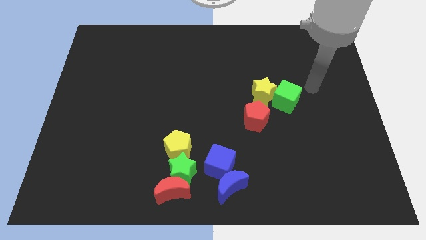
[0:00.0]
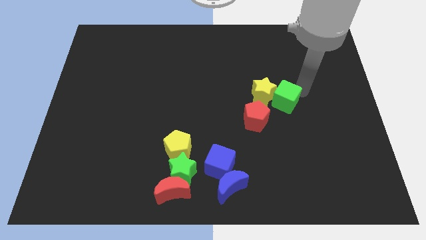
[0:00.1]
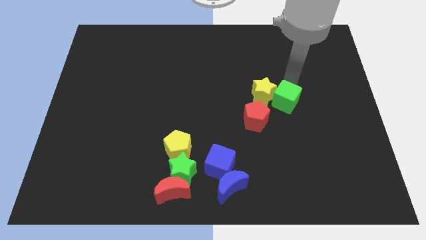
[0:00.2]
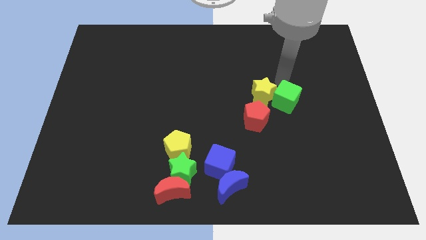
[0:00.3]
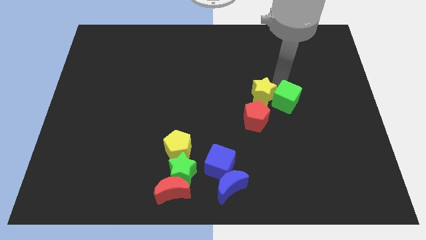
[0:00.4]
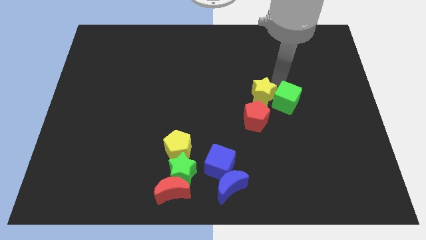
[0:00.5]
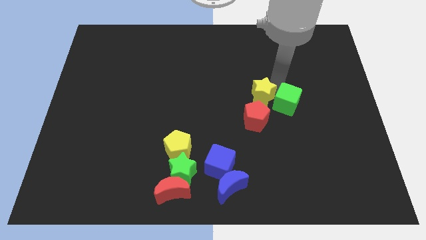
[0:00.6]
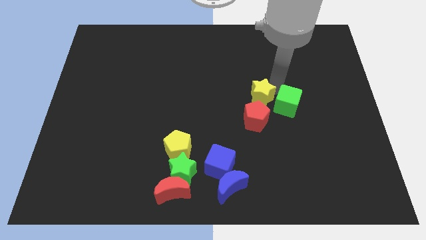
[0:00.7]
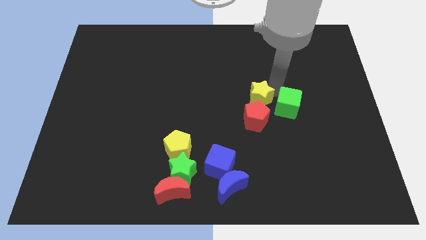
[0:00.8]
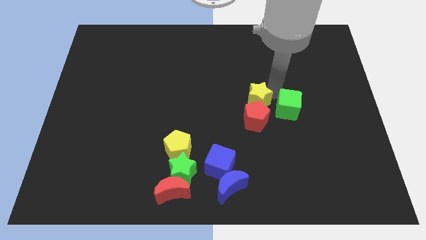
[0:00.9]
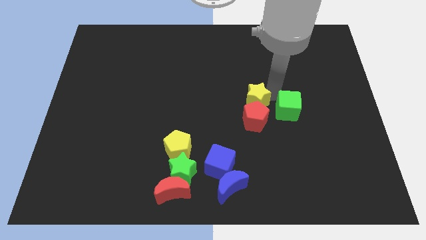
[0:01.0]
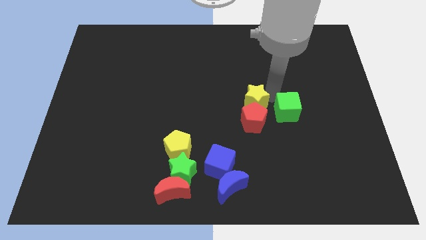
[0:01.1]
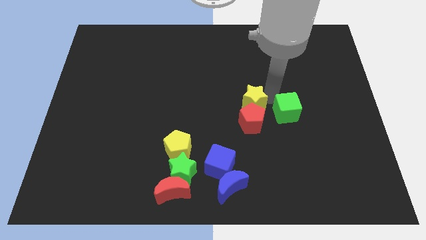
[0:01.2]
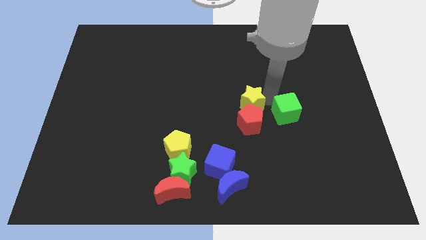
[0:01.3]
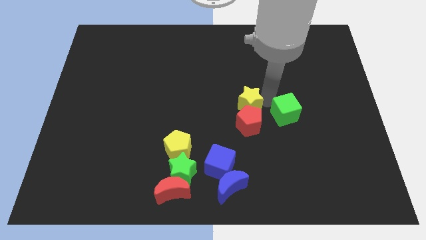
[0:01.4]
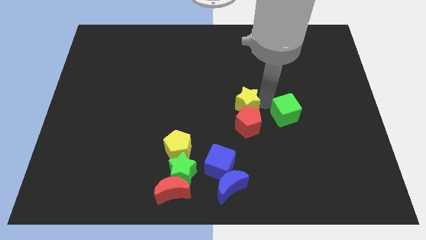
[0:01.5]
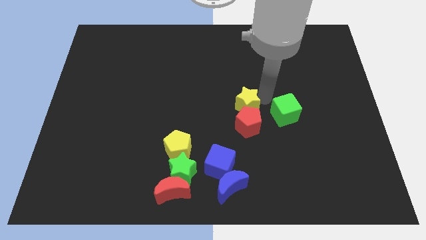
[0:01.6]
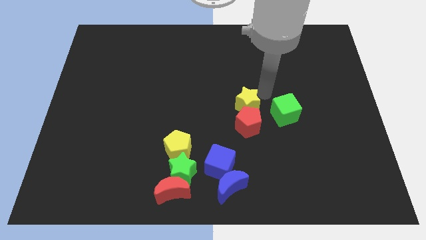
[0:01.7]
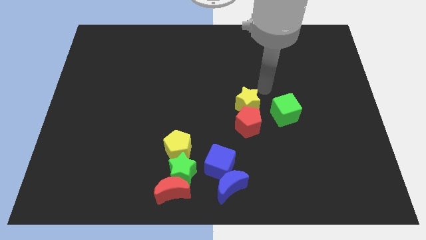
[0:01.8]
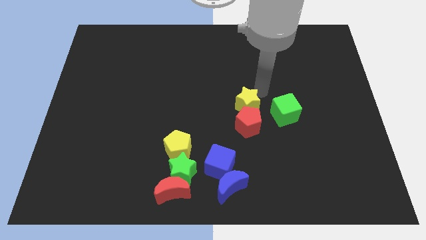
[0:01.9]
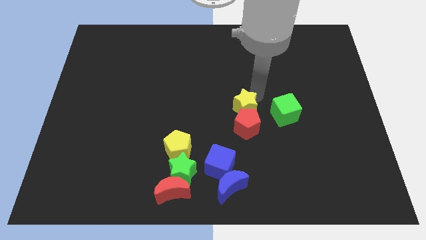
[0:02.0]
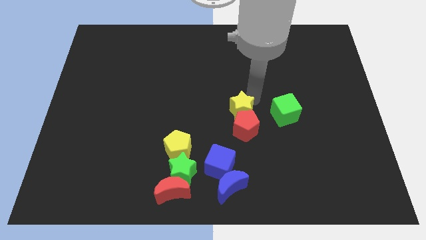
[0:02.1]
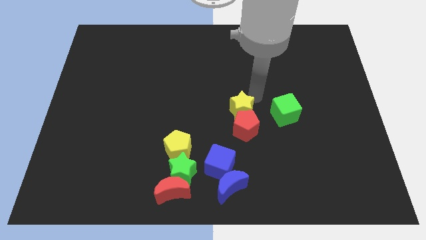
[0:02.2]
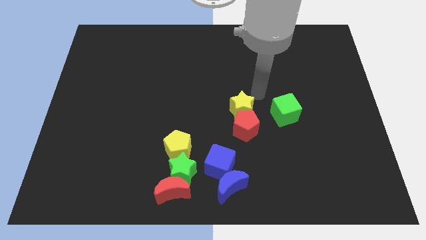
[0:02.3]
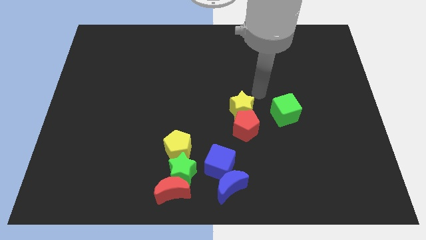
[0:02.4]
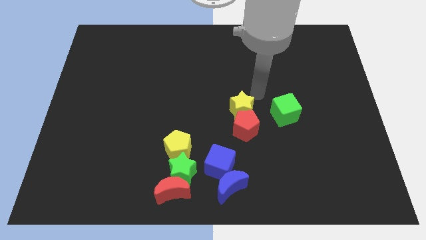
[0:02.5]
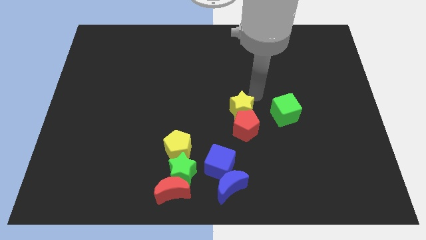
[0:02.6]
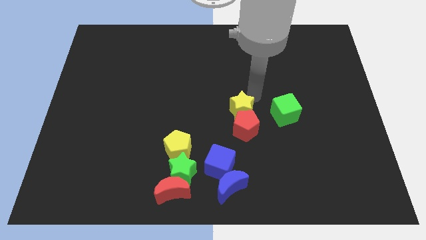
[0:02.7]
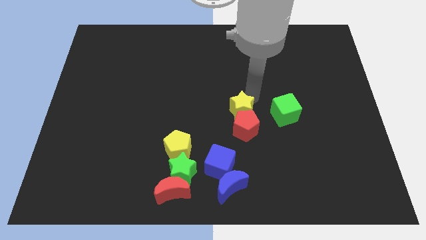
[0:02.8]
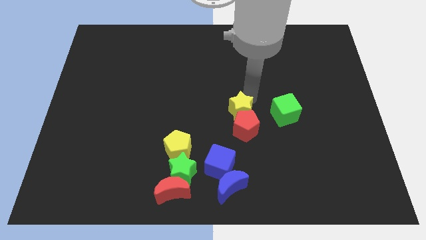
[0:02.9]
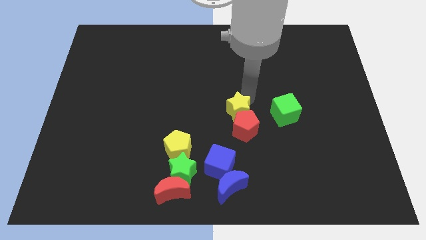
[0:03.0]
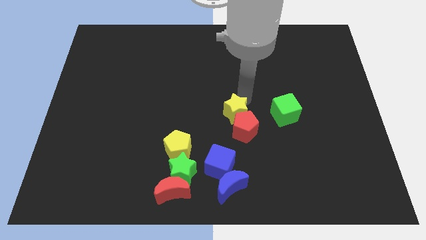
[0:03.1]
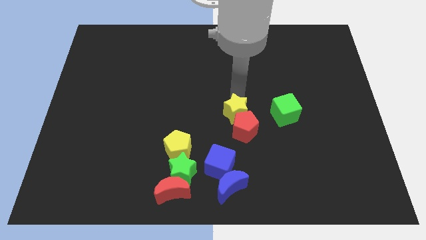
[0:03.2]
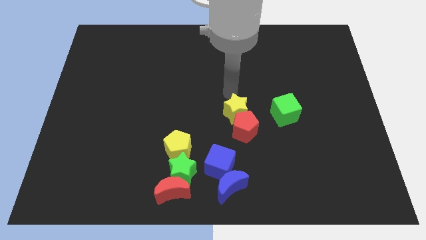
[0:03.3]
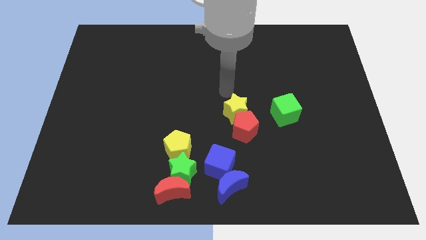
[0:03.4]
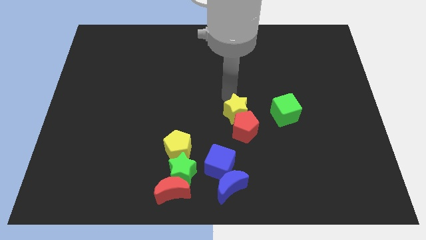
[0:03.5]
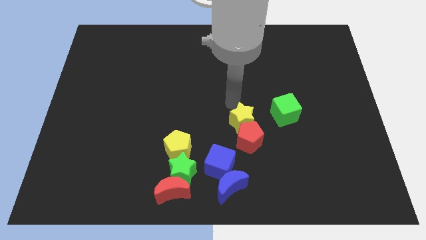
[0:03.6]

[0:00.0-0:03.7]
push the yellow star down a little bit

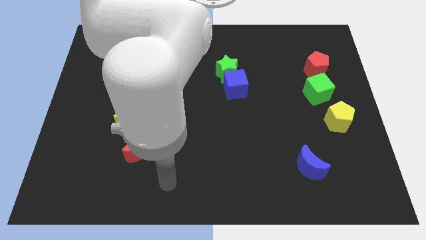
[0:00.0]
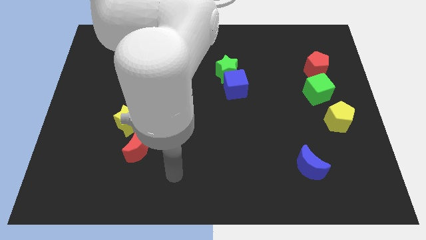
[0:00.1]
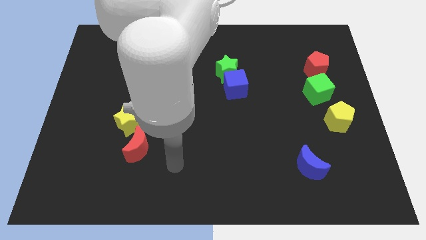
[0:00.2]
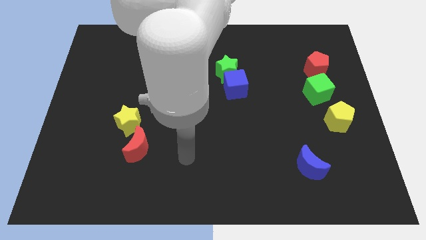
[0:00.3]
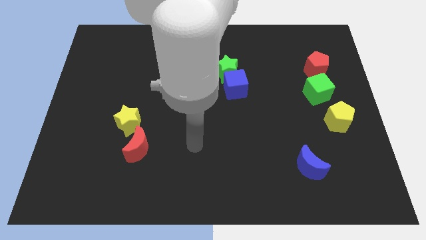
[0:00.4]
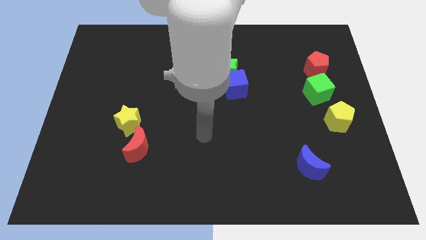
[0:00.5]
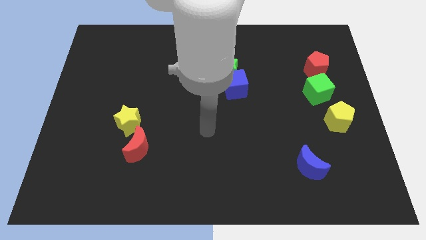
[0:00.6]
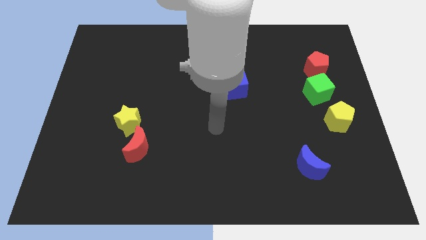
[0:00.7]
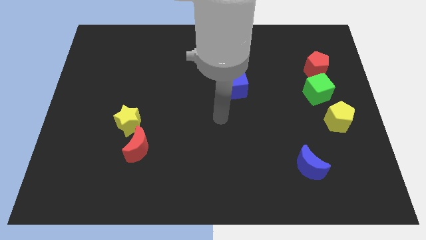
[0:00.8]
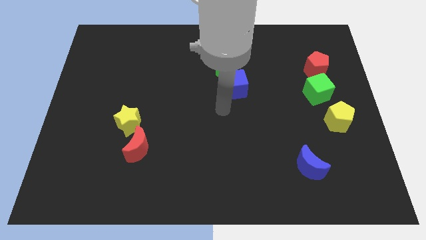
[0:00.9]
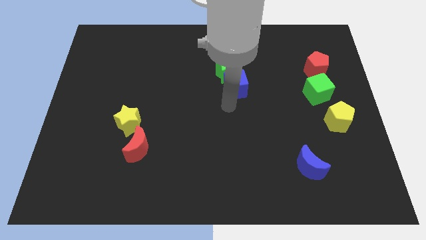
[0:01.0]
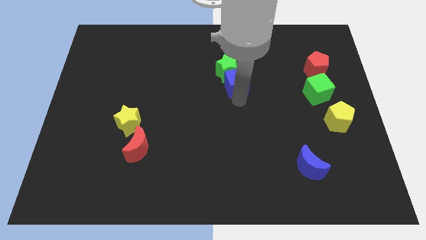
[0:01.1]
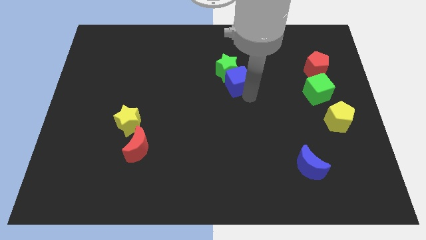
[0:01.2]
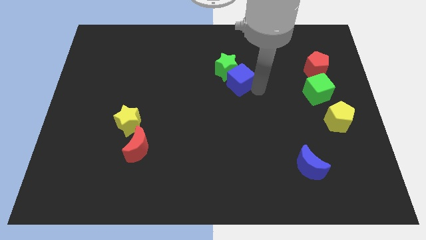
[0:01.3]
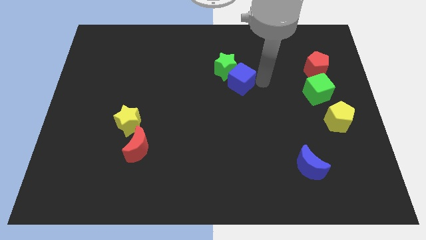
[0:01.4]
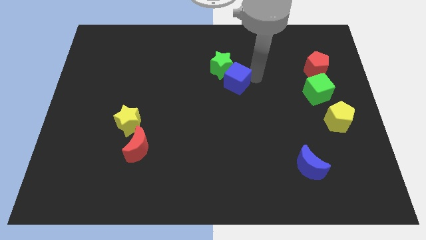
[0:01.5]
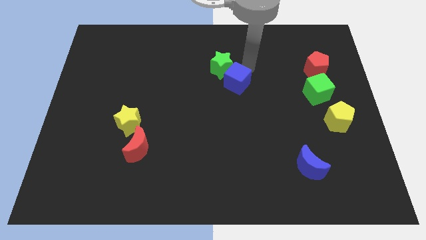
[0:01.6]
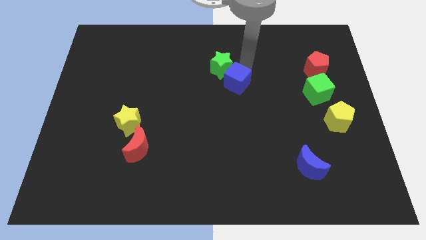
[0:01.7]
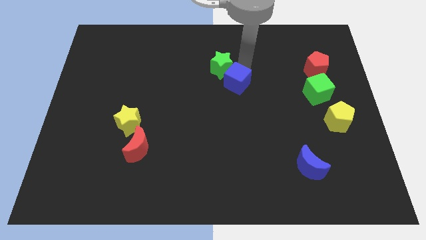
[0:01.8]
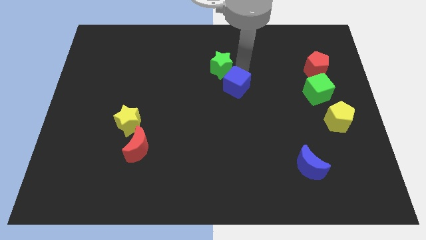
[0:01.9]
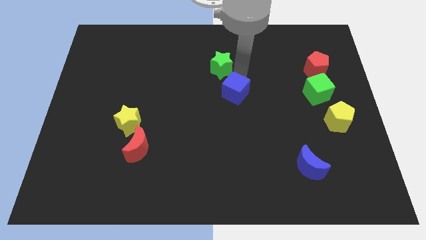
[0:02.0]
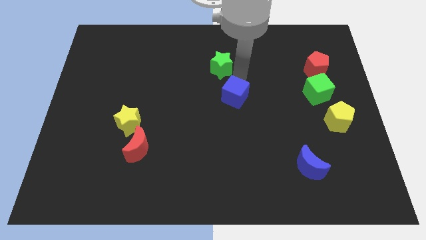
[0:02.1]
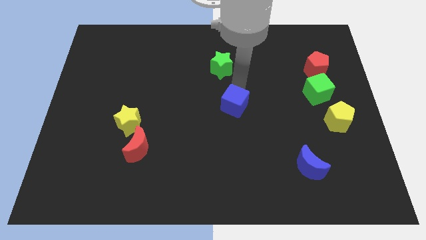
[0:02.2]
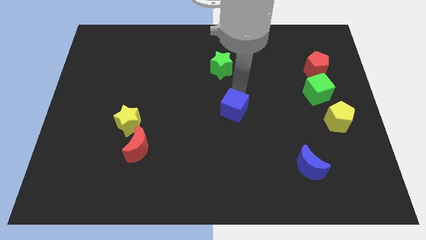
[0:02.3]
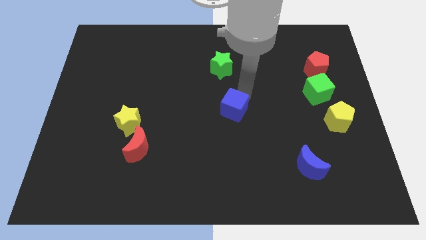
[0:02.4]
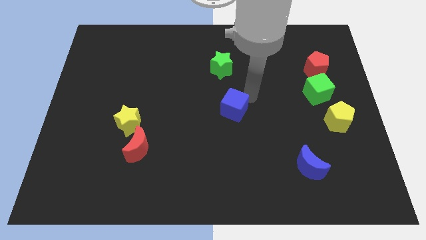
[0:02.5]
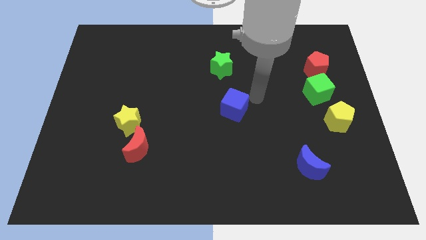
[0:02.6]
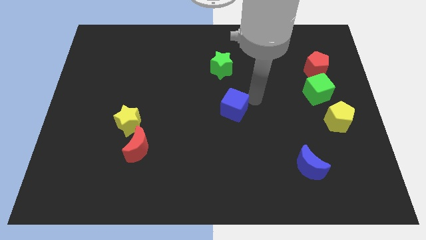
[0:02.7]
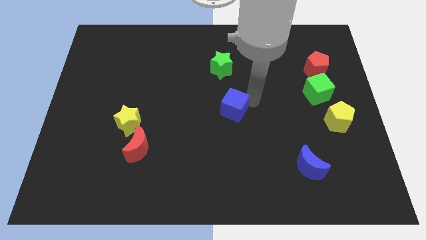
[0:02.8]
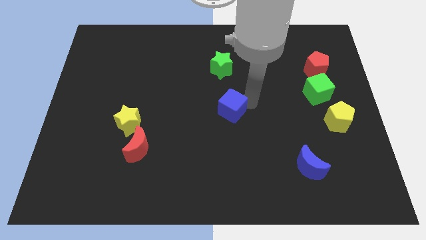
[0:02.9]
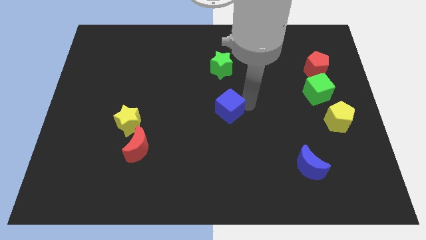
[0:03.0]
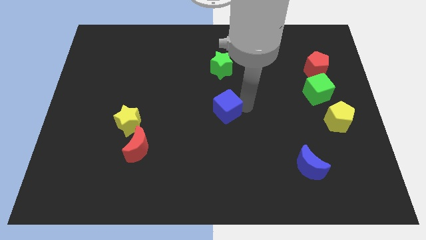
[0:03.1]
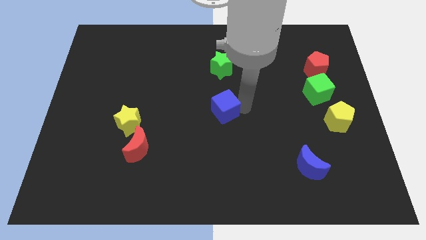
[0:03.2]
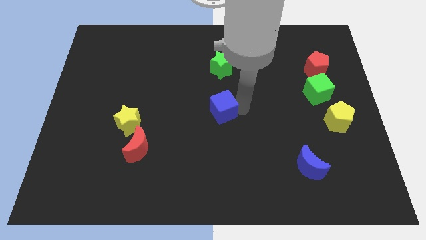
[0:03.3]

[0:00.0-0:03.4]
push the blue cube diagonally down and left a bit

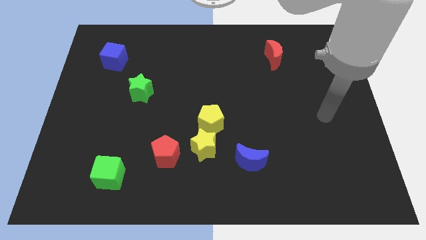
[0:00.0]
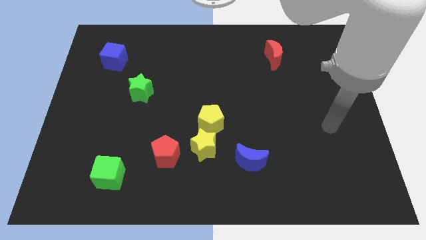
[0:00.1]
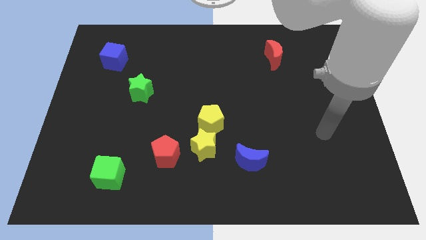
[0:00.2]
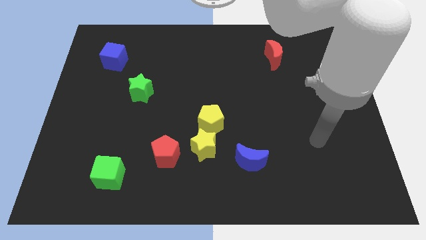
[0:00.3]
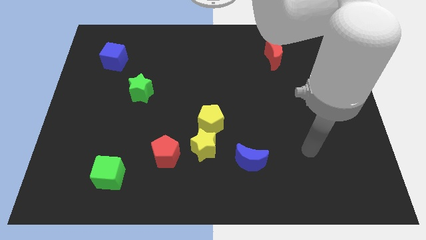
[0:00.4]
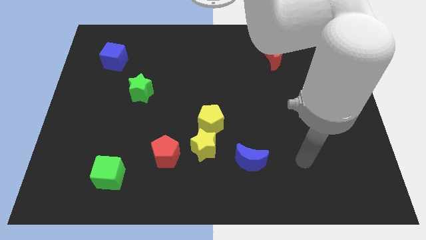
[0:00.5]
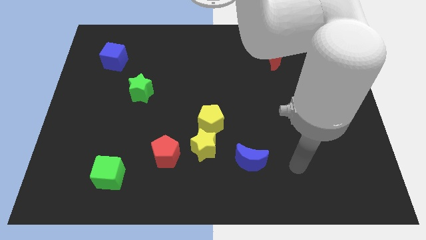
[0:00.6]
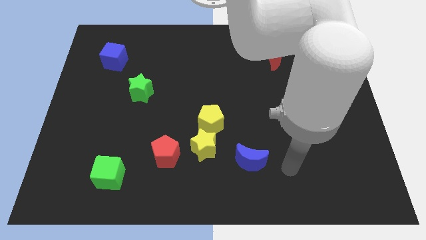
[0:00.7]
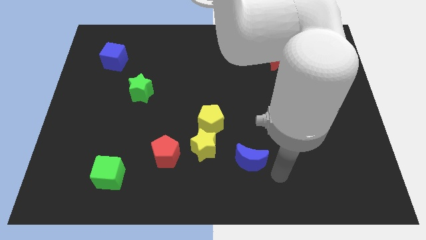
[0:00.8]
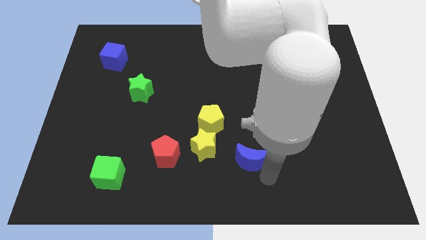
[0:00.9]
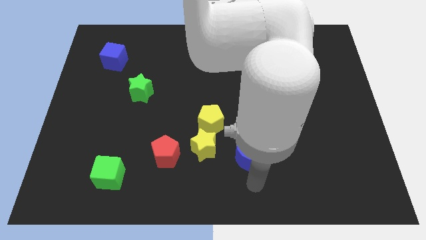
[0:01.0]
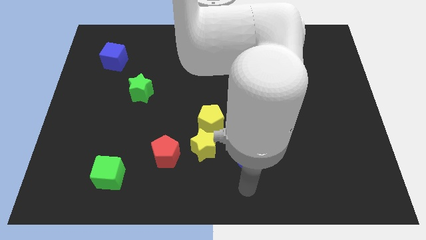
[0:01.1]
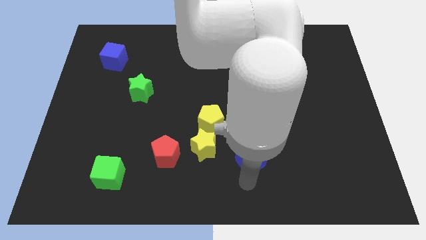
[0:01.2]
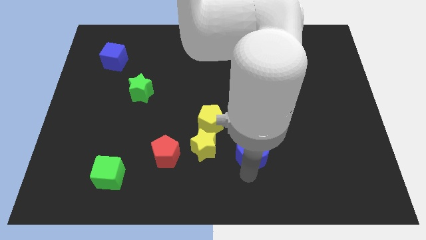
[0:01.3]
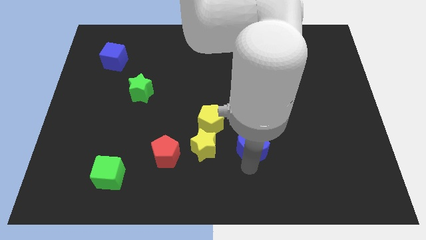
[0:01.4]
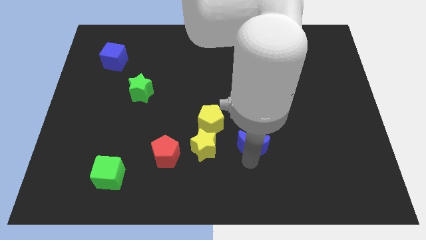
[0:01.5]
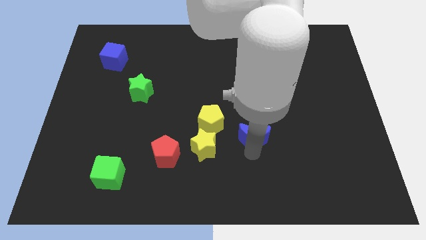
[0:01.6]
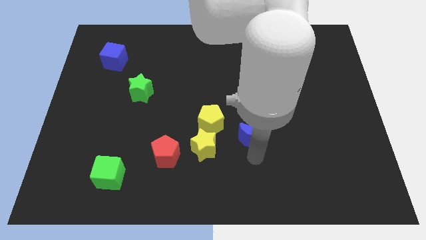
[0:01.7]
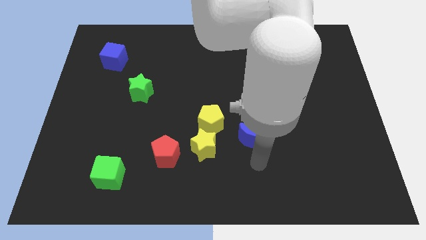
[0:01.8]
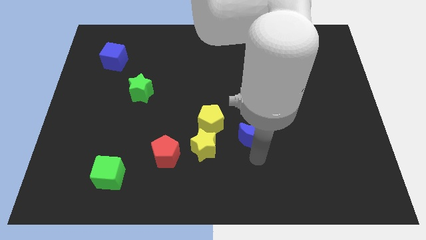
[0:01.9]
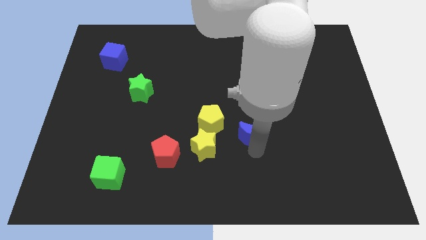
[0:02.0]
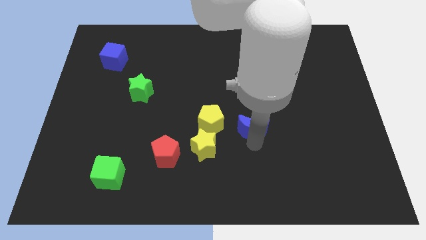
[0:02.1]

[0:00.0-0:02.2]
slightly push the blue moon up
